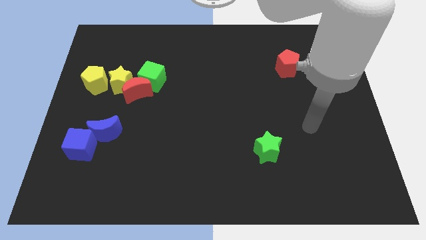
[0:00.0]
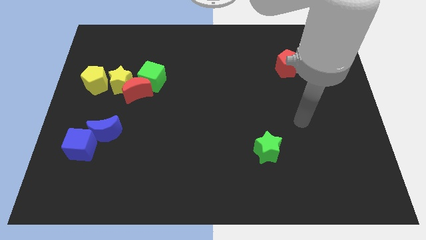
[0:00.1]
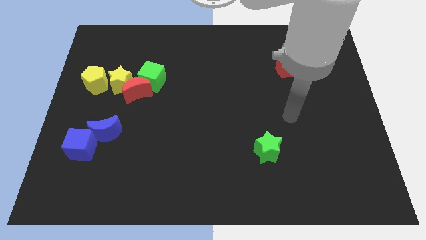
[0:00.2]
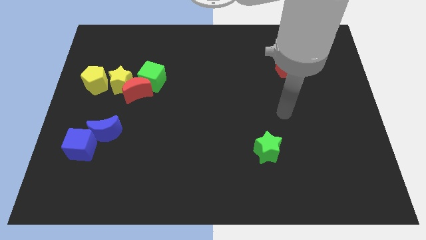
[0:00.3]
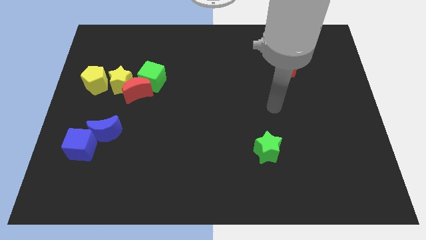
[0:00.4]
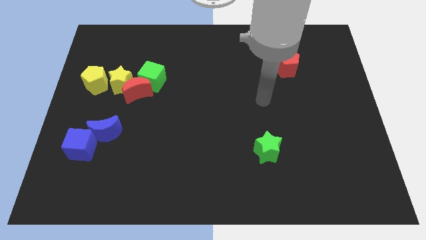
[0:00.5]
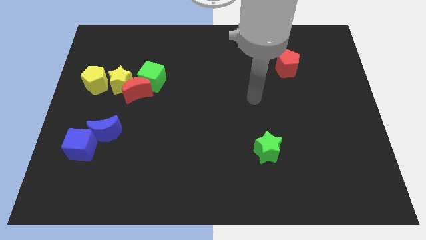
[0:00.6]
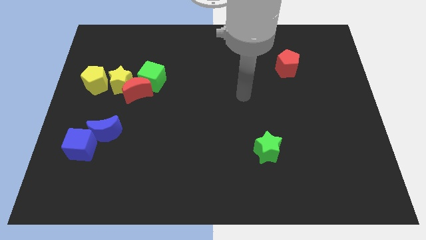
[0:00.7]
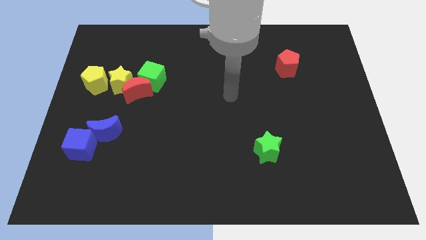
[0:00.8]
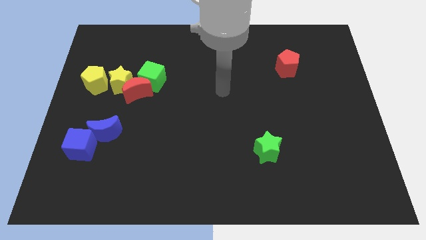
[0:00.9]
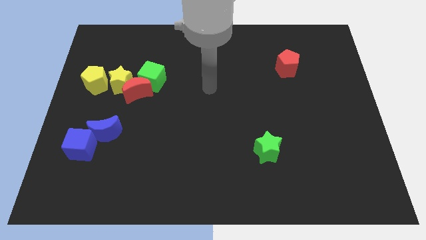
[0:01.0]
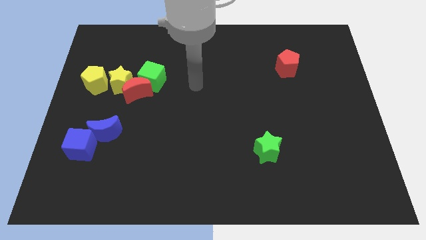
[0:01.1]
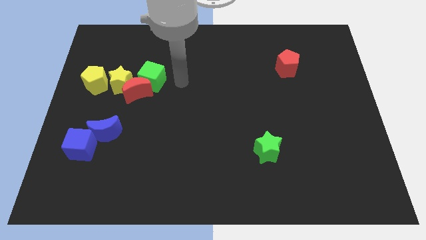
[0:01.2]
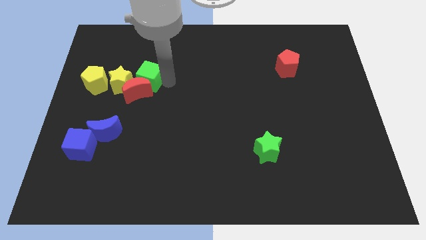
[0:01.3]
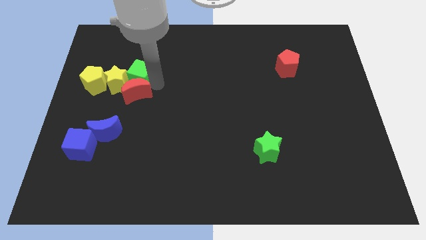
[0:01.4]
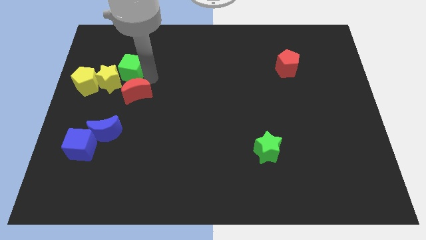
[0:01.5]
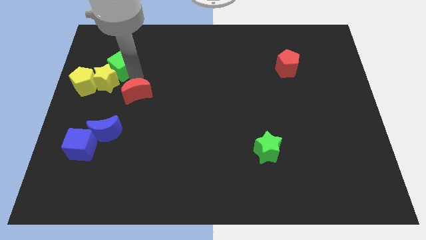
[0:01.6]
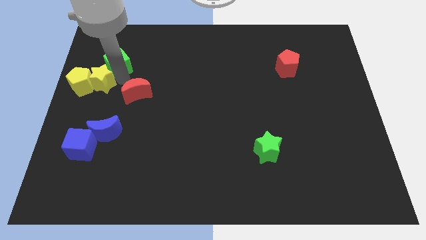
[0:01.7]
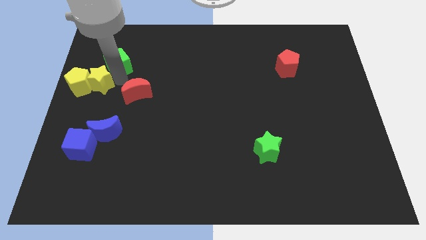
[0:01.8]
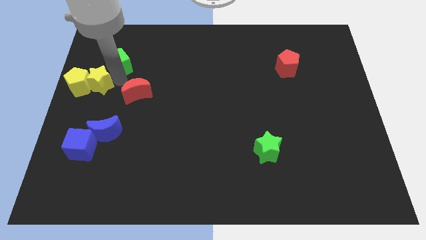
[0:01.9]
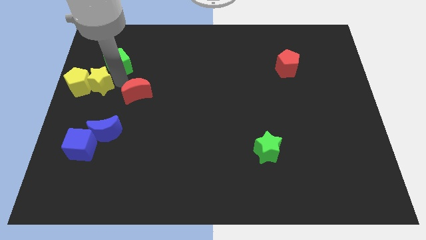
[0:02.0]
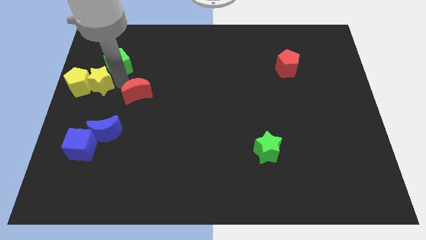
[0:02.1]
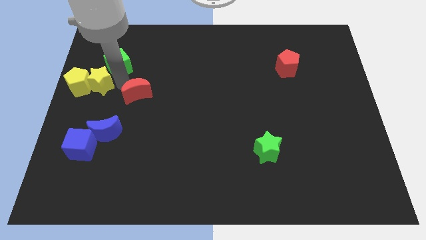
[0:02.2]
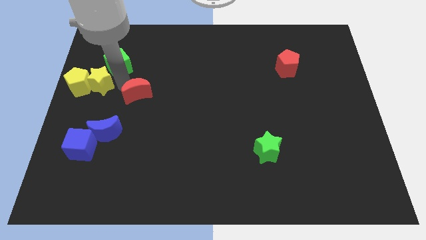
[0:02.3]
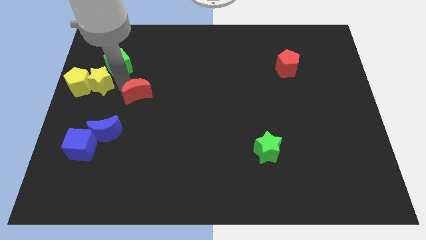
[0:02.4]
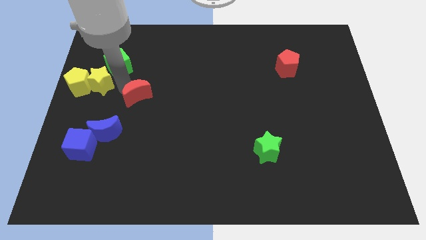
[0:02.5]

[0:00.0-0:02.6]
move the red moon away from the yellow star and green cube

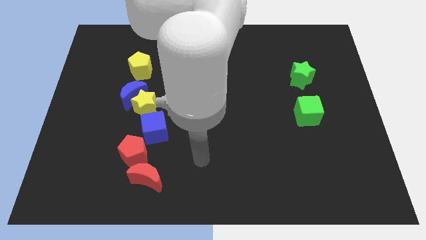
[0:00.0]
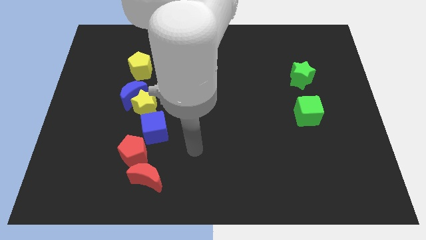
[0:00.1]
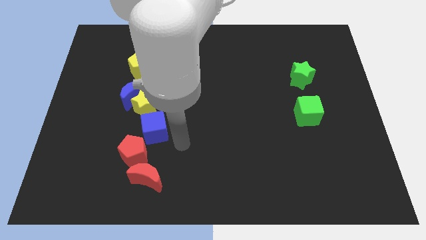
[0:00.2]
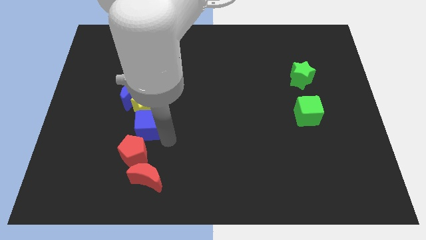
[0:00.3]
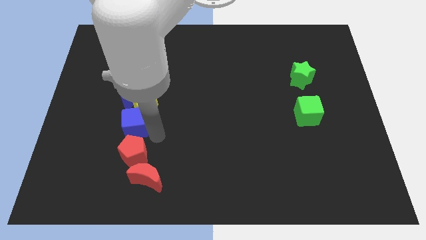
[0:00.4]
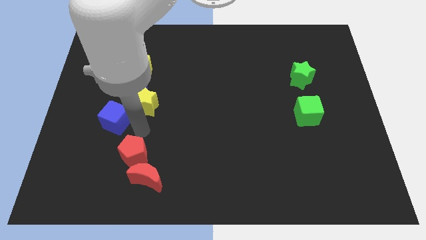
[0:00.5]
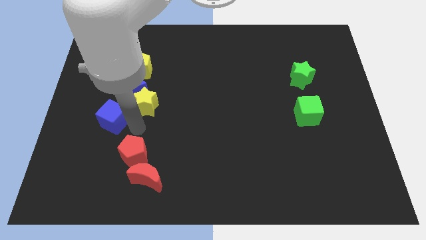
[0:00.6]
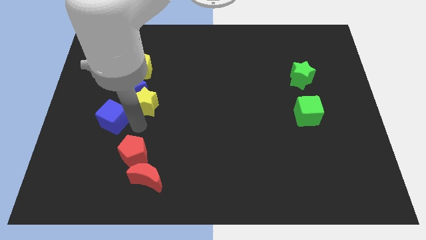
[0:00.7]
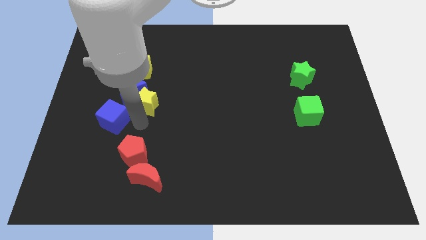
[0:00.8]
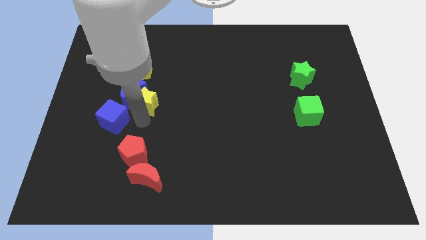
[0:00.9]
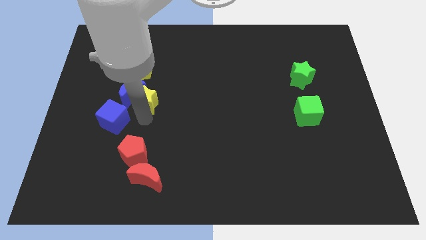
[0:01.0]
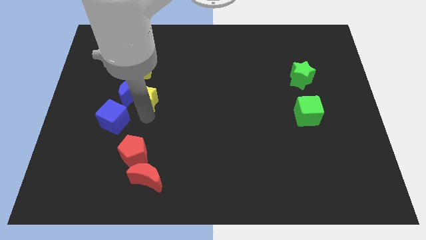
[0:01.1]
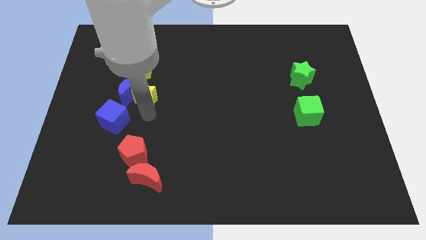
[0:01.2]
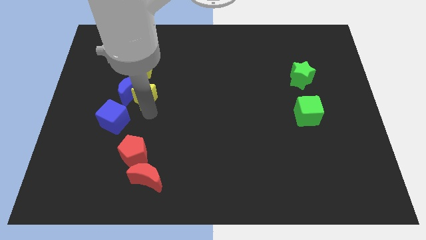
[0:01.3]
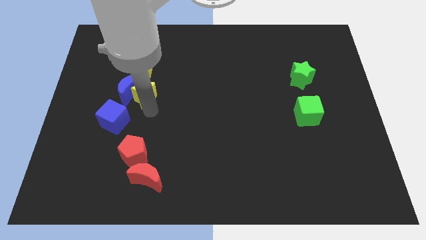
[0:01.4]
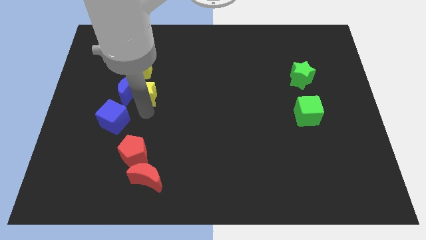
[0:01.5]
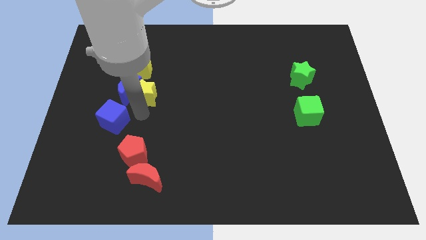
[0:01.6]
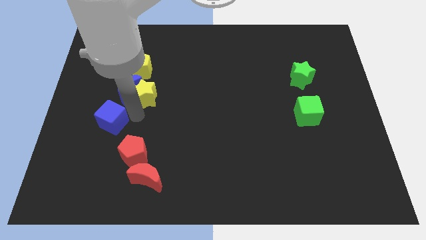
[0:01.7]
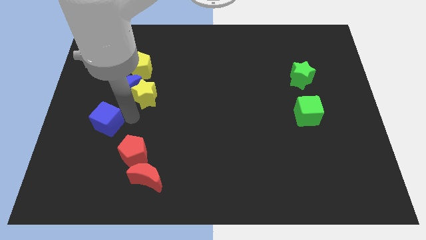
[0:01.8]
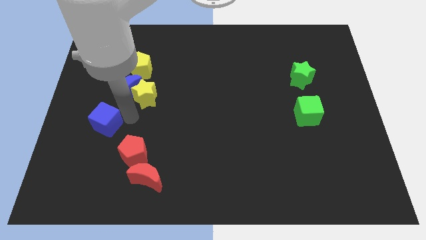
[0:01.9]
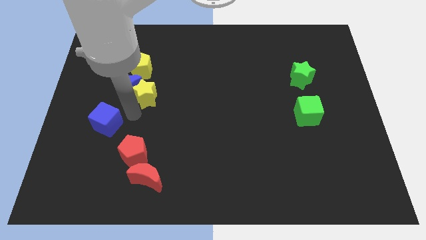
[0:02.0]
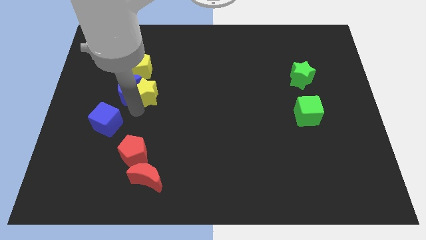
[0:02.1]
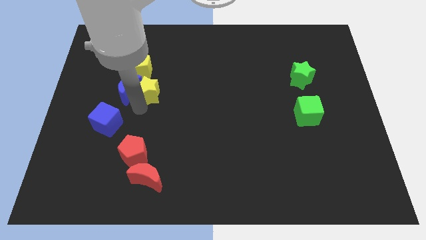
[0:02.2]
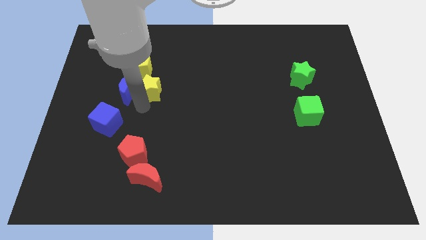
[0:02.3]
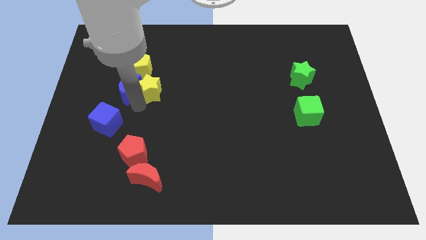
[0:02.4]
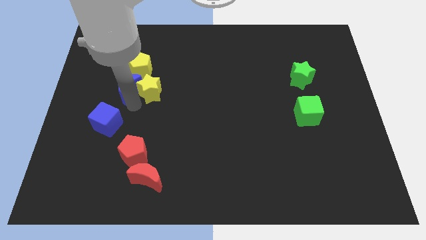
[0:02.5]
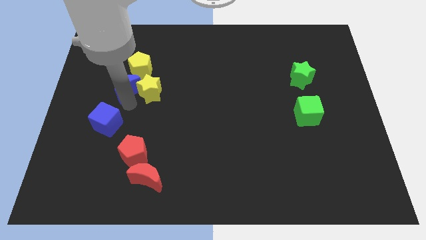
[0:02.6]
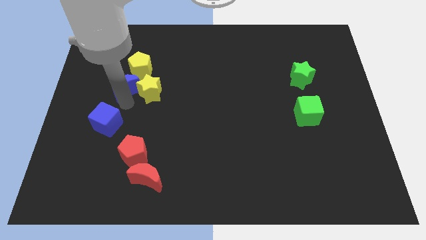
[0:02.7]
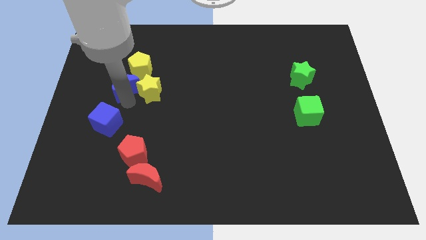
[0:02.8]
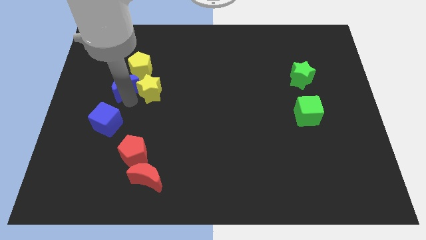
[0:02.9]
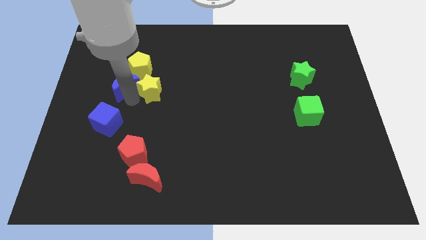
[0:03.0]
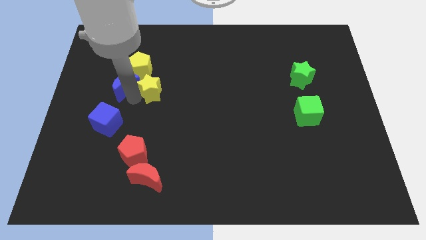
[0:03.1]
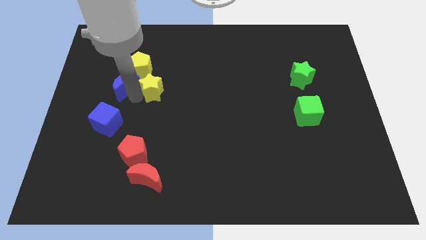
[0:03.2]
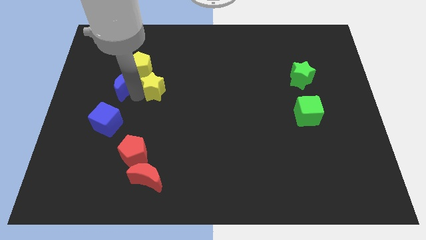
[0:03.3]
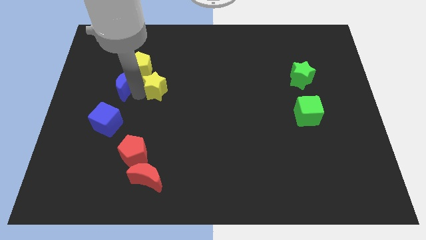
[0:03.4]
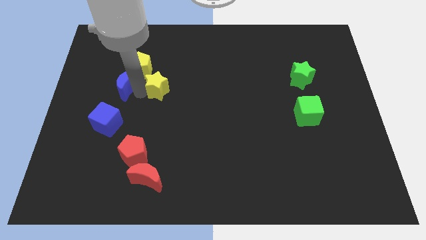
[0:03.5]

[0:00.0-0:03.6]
separate the yellow star from the blue moon and blue cube

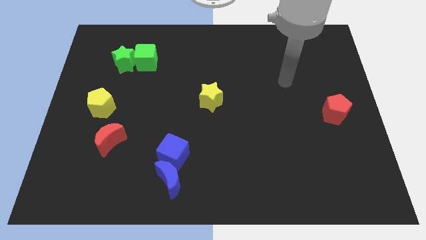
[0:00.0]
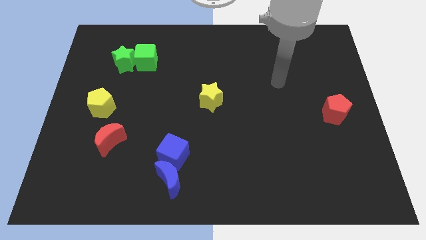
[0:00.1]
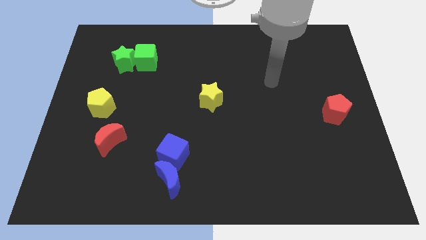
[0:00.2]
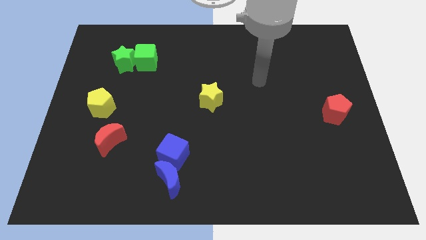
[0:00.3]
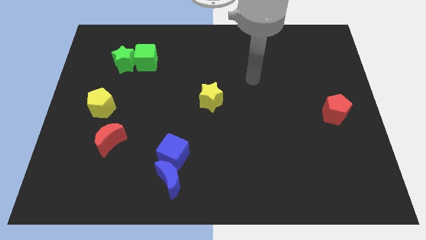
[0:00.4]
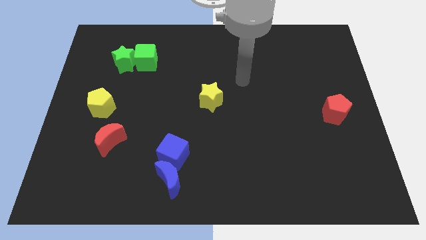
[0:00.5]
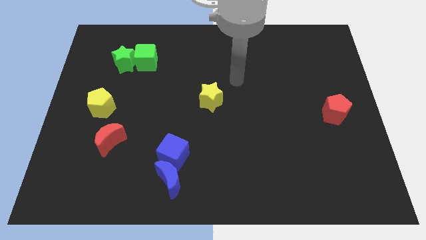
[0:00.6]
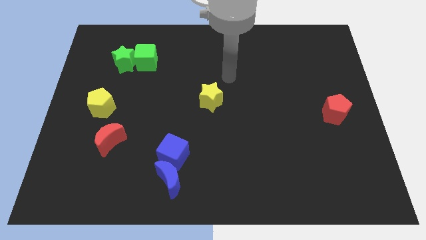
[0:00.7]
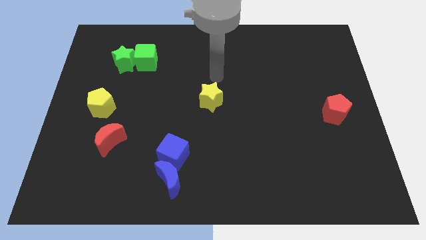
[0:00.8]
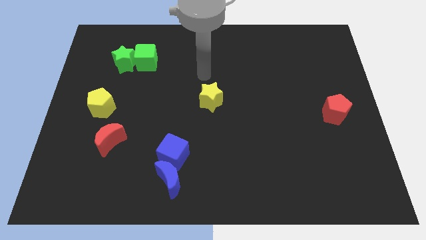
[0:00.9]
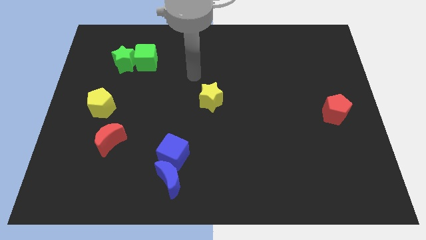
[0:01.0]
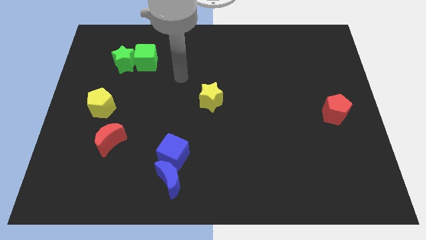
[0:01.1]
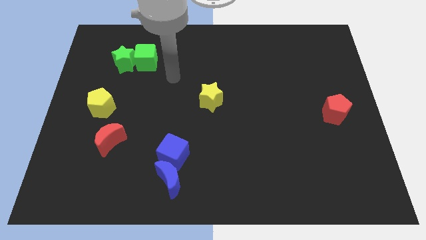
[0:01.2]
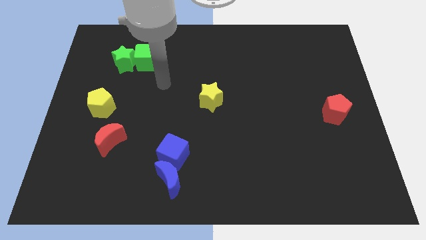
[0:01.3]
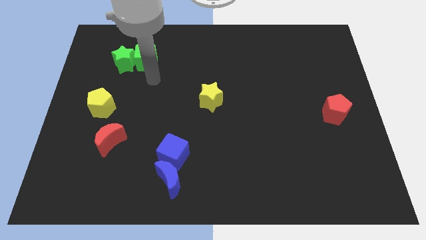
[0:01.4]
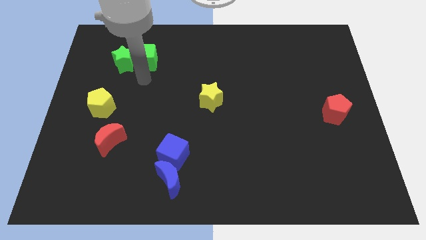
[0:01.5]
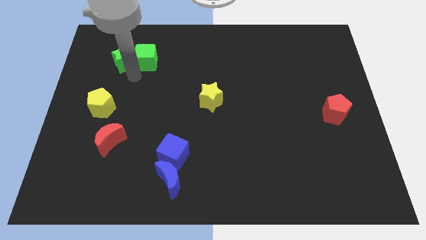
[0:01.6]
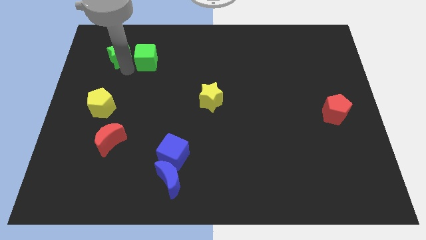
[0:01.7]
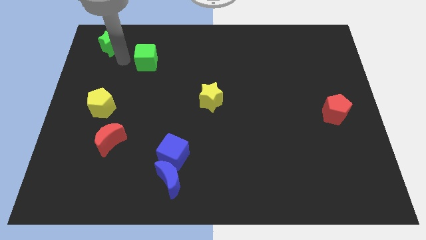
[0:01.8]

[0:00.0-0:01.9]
move the green cube away from the green star

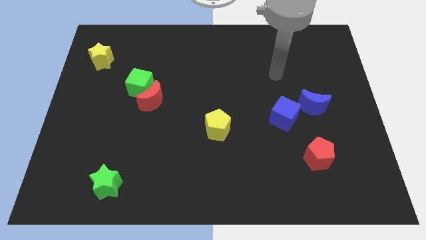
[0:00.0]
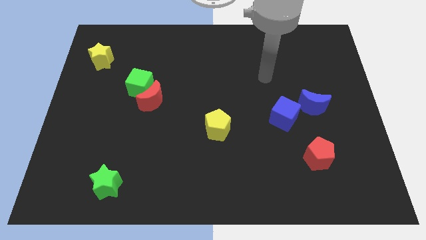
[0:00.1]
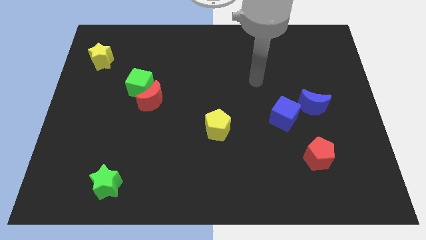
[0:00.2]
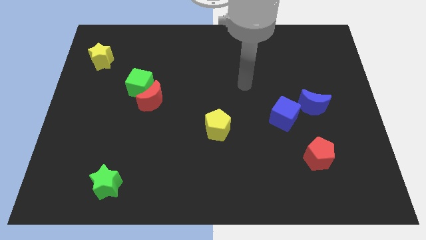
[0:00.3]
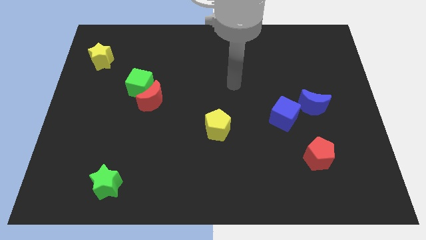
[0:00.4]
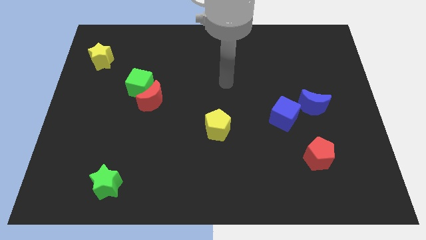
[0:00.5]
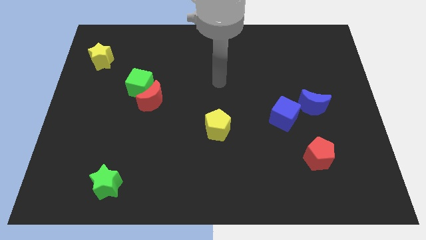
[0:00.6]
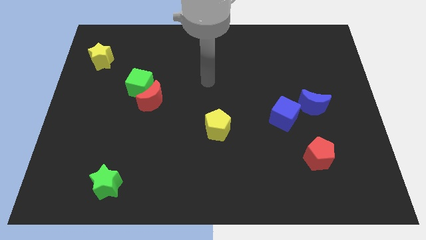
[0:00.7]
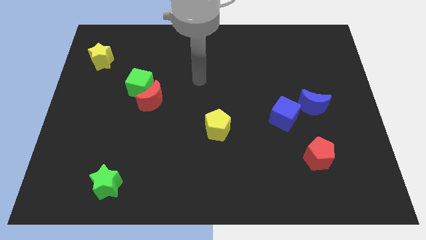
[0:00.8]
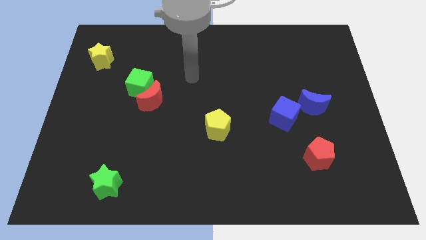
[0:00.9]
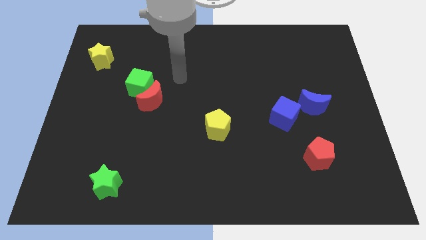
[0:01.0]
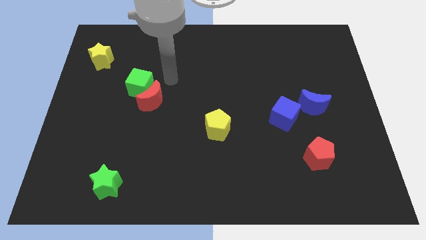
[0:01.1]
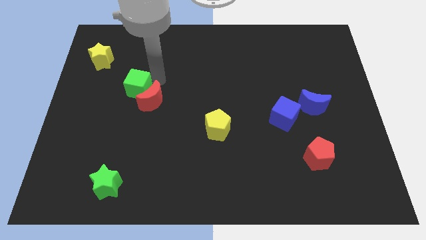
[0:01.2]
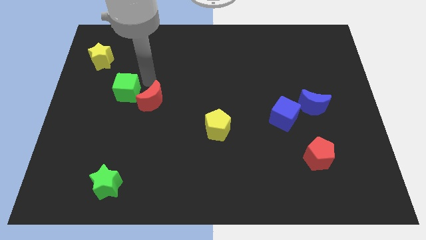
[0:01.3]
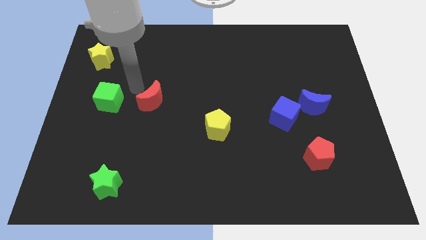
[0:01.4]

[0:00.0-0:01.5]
separate the red moon from the green cube
